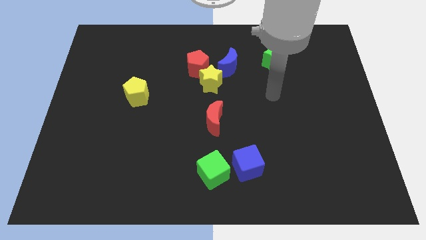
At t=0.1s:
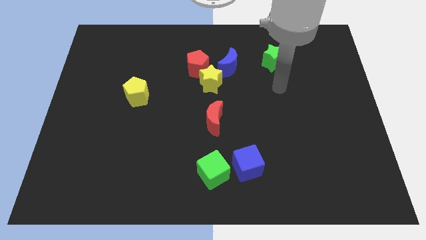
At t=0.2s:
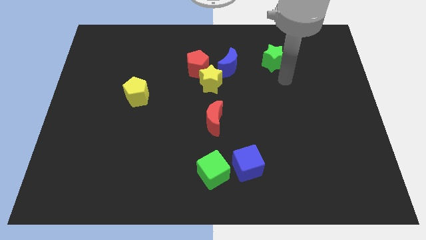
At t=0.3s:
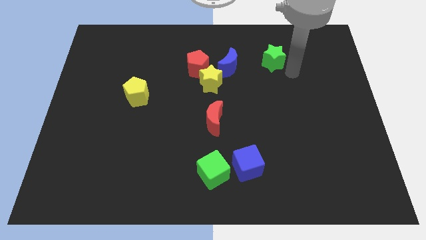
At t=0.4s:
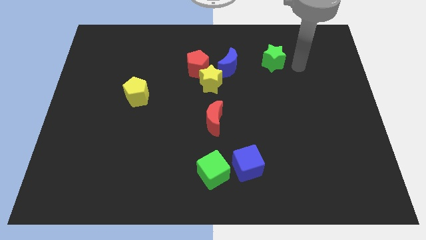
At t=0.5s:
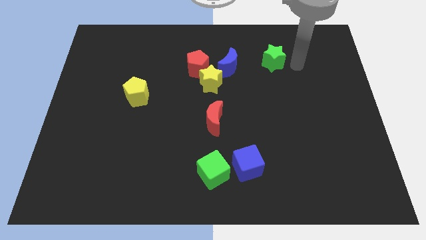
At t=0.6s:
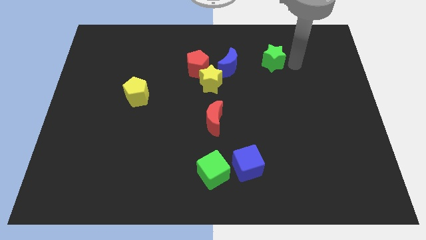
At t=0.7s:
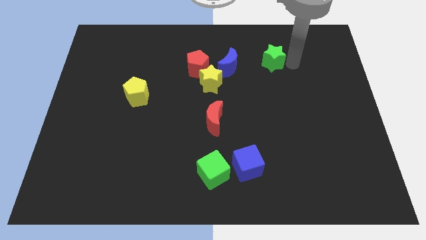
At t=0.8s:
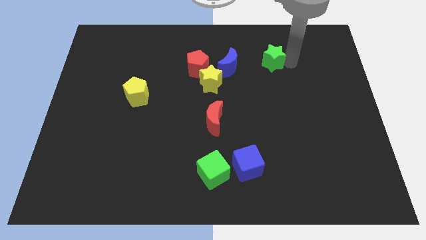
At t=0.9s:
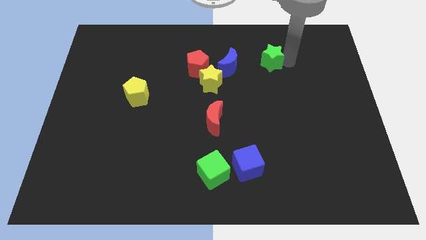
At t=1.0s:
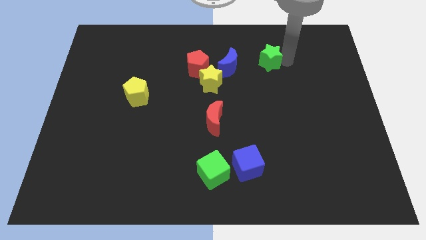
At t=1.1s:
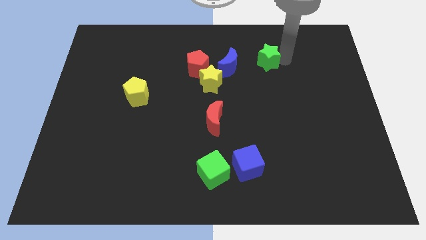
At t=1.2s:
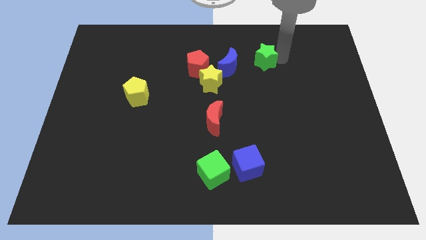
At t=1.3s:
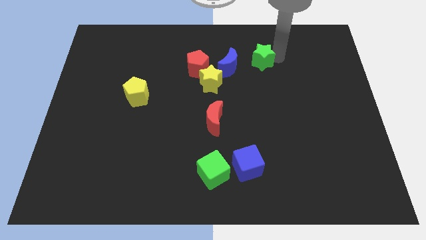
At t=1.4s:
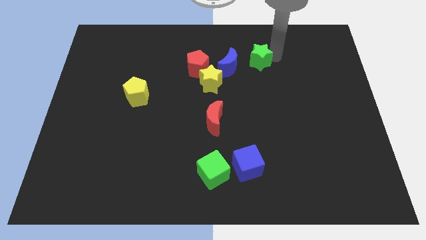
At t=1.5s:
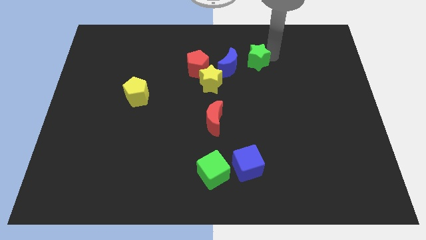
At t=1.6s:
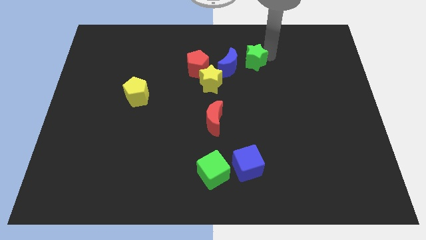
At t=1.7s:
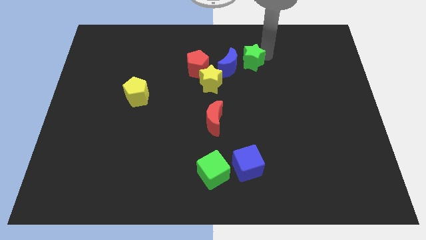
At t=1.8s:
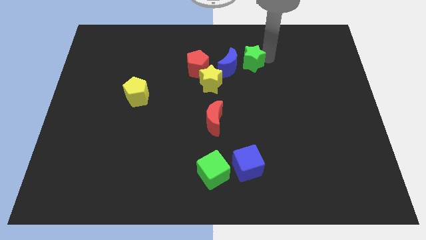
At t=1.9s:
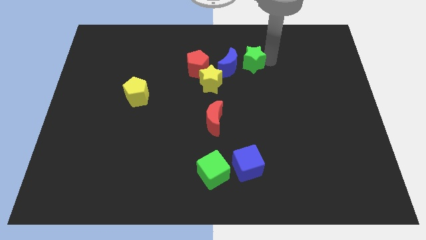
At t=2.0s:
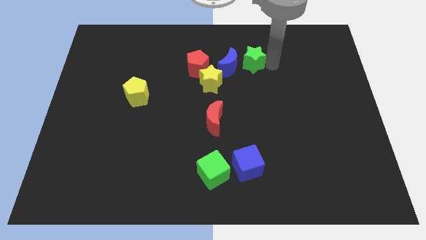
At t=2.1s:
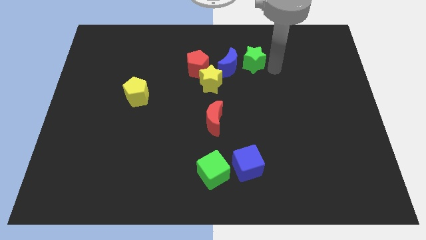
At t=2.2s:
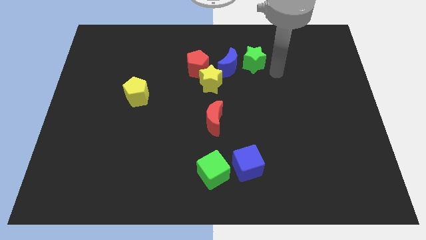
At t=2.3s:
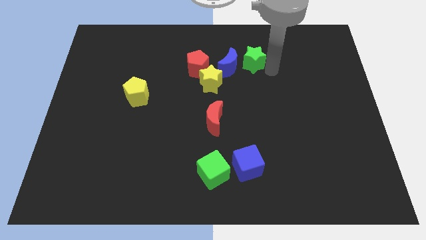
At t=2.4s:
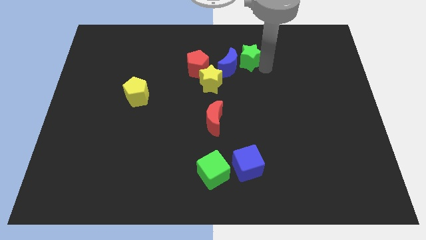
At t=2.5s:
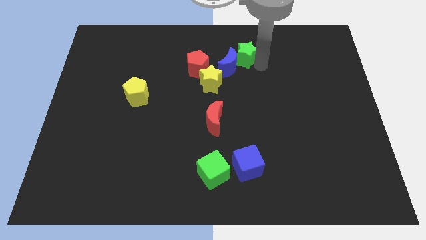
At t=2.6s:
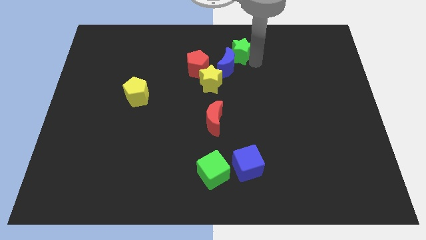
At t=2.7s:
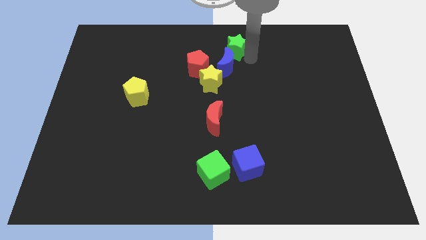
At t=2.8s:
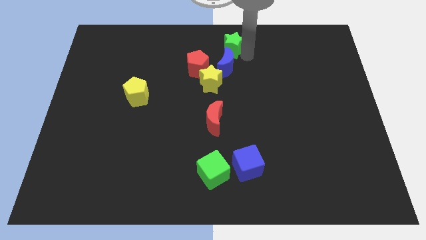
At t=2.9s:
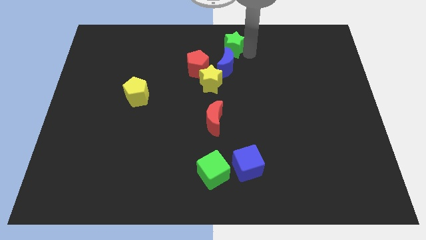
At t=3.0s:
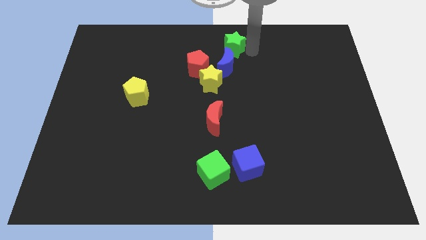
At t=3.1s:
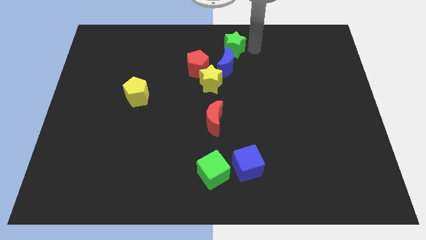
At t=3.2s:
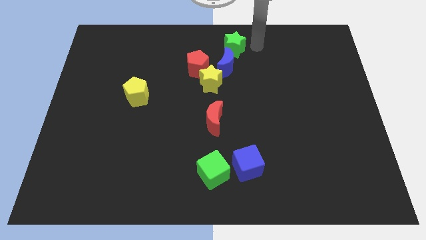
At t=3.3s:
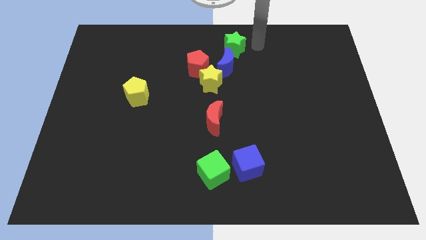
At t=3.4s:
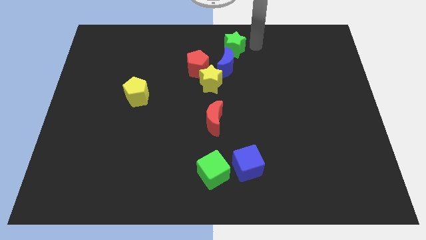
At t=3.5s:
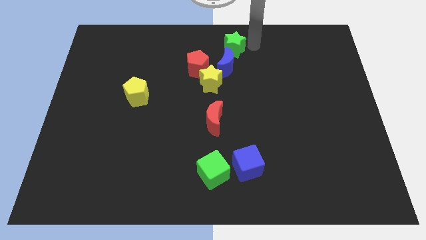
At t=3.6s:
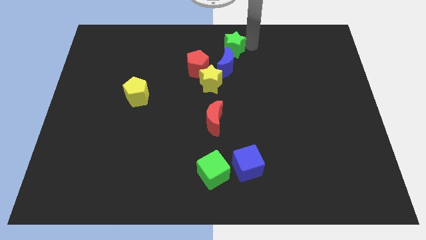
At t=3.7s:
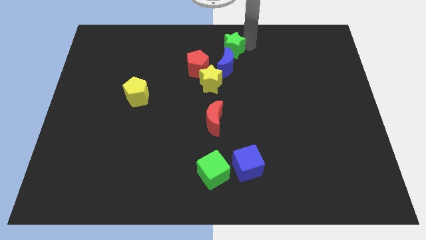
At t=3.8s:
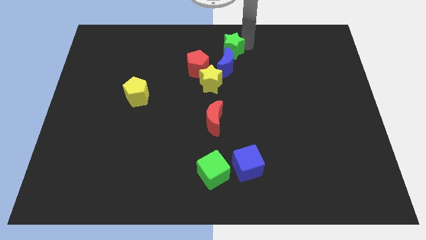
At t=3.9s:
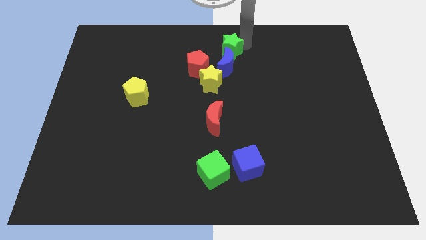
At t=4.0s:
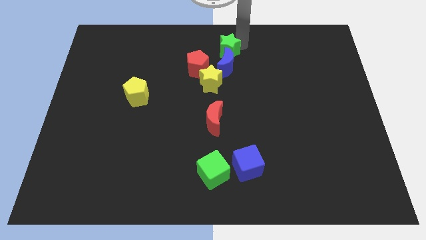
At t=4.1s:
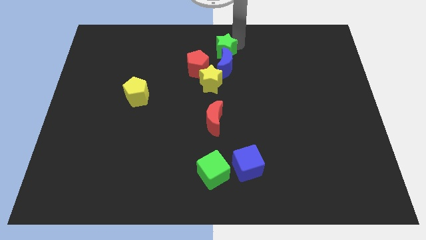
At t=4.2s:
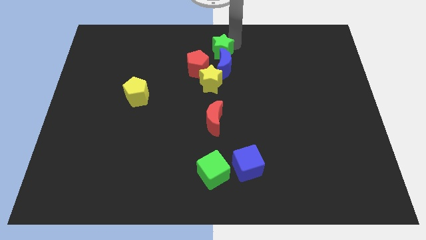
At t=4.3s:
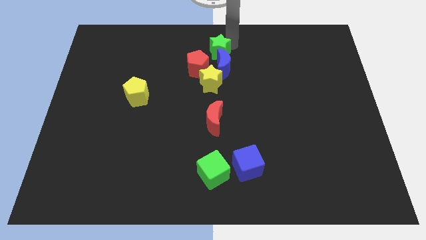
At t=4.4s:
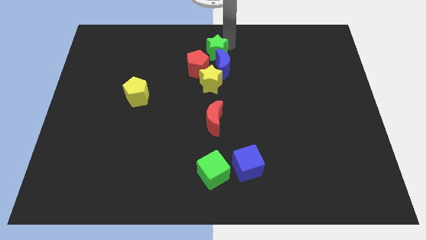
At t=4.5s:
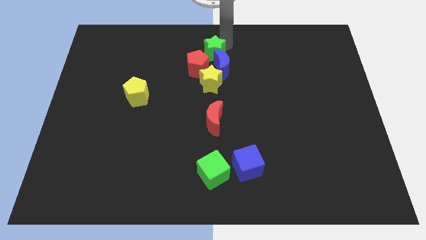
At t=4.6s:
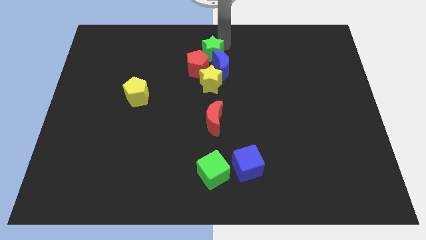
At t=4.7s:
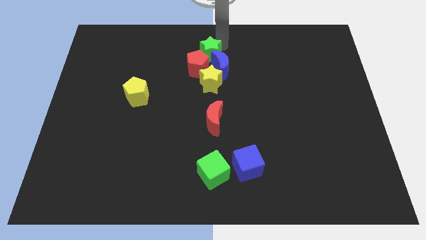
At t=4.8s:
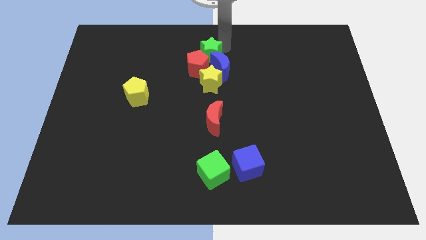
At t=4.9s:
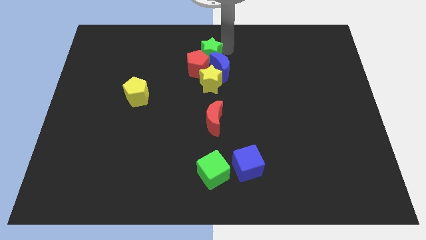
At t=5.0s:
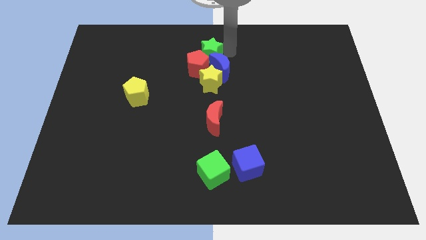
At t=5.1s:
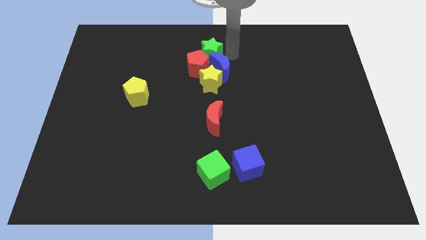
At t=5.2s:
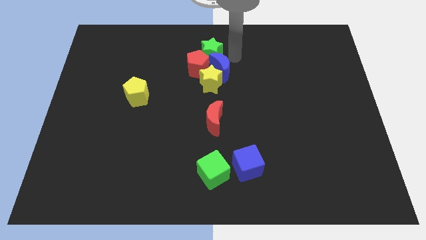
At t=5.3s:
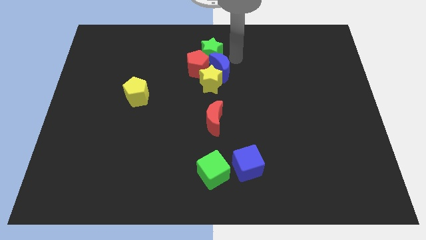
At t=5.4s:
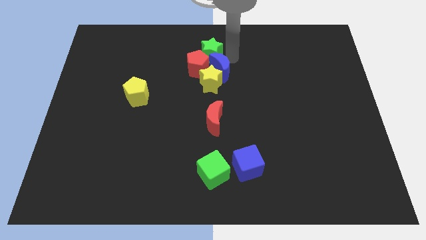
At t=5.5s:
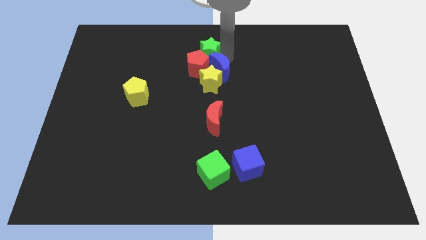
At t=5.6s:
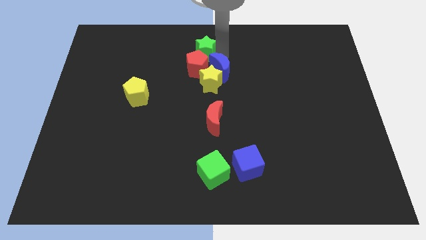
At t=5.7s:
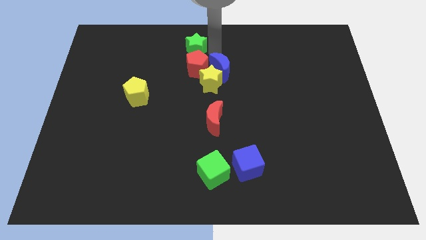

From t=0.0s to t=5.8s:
move the green star left

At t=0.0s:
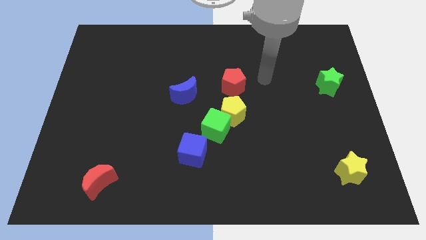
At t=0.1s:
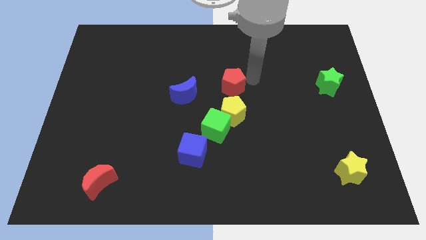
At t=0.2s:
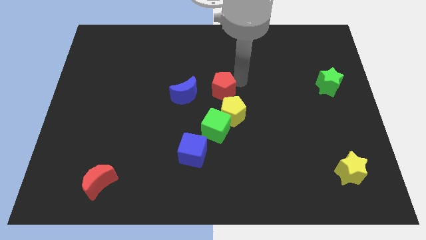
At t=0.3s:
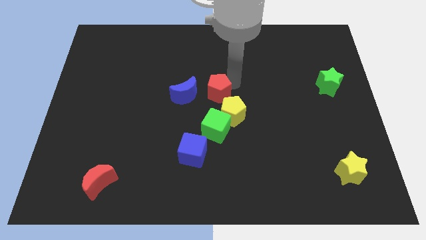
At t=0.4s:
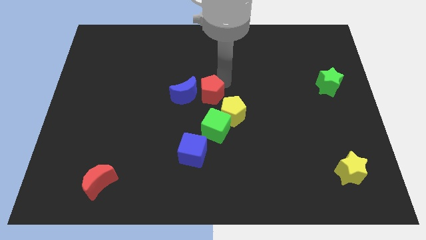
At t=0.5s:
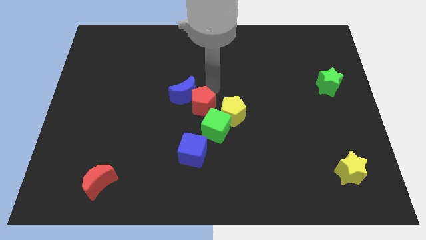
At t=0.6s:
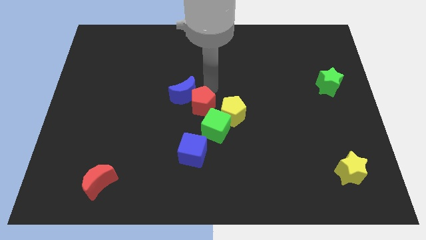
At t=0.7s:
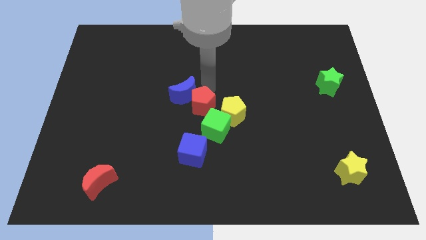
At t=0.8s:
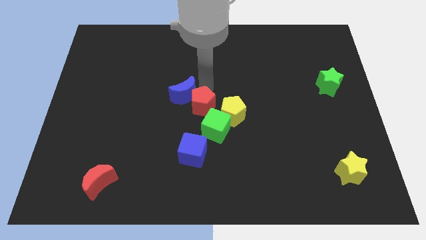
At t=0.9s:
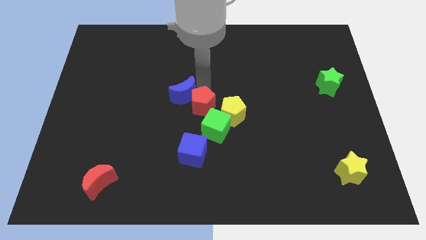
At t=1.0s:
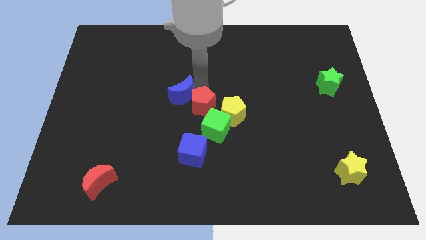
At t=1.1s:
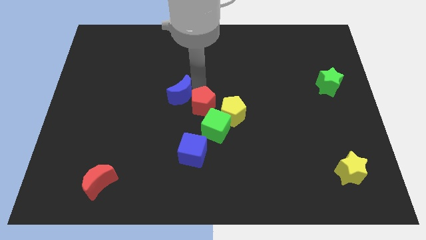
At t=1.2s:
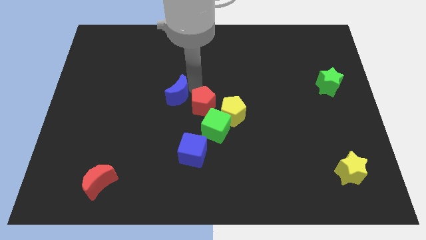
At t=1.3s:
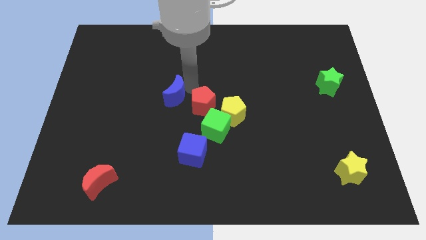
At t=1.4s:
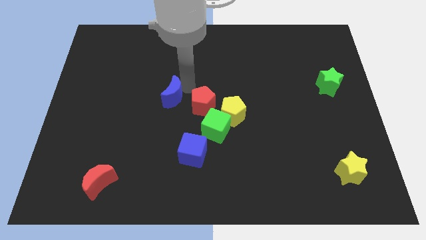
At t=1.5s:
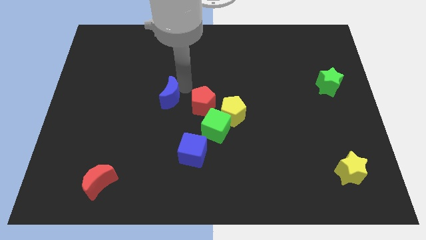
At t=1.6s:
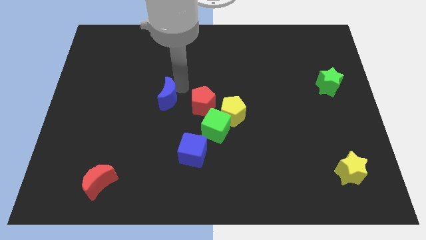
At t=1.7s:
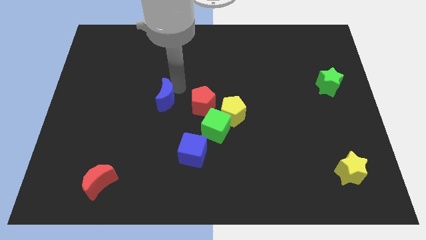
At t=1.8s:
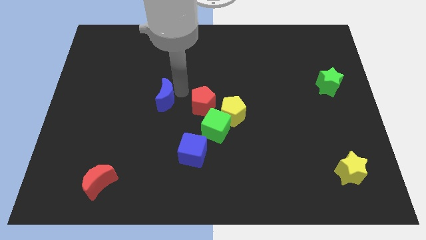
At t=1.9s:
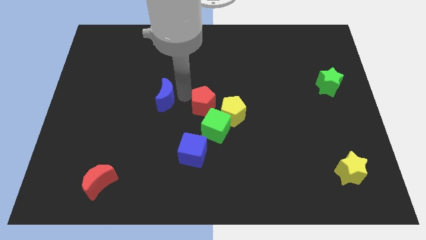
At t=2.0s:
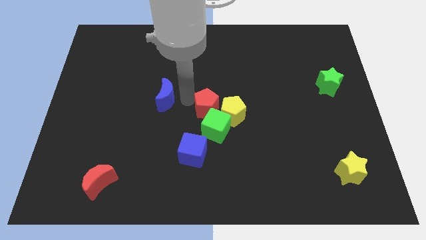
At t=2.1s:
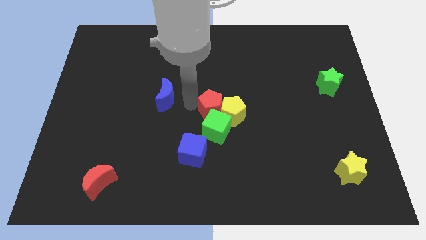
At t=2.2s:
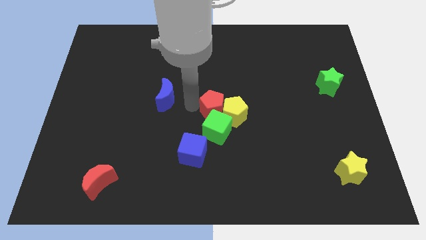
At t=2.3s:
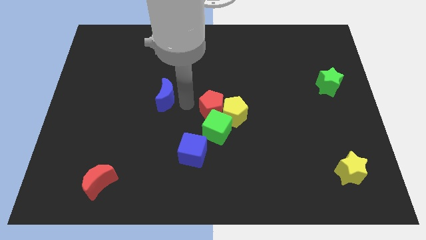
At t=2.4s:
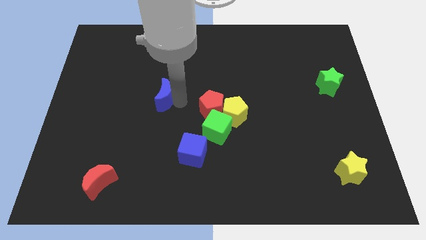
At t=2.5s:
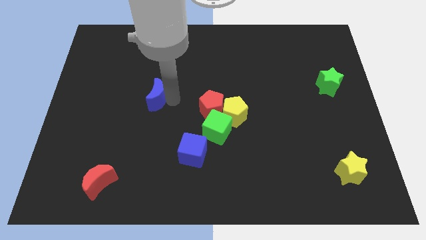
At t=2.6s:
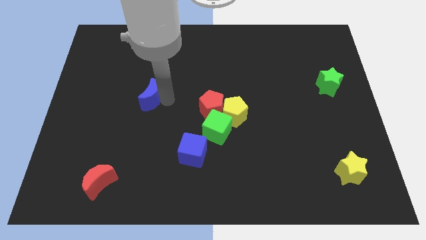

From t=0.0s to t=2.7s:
slightly push the blue moon left
